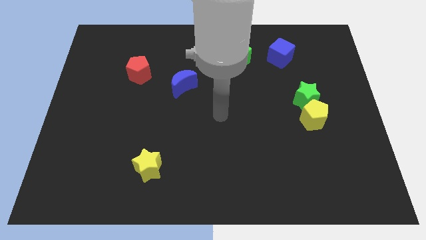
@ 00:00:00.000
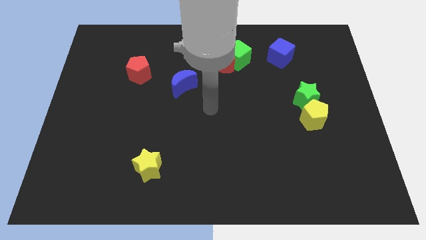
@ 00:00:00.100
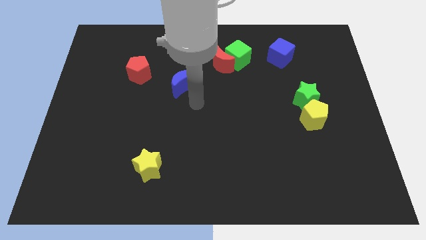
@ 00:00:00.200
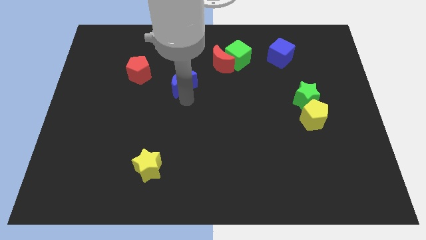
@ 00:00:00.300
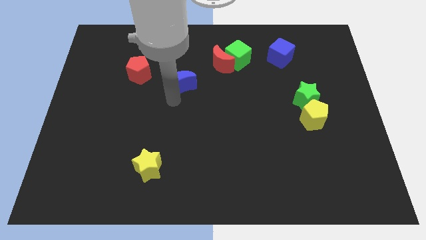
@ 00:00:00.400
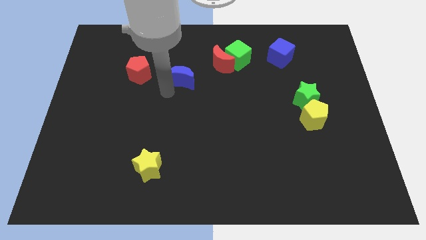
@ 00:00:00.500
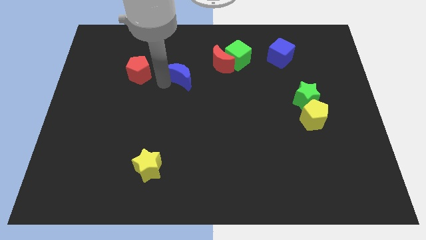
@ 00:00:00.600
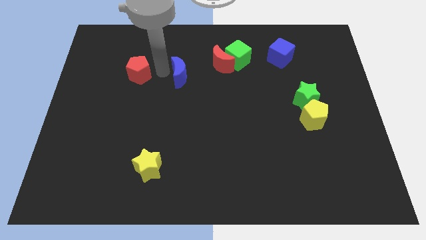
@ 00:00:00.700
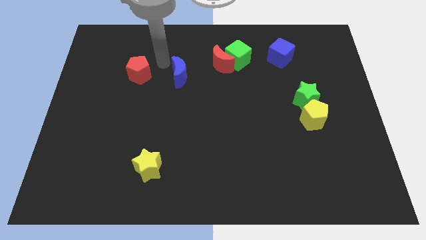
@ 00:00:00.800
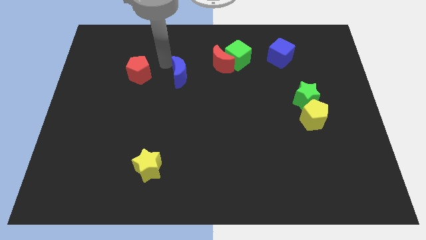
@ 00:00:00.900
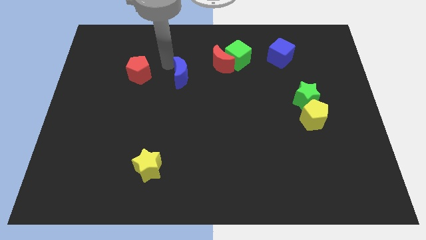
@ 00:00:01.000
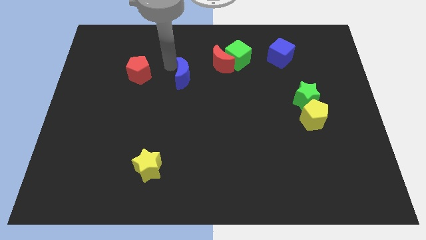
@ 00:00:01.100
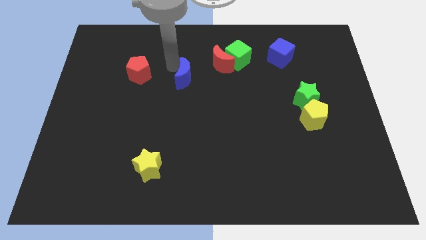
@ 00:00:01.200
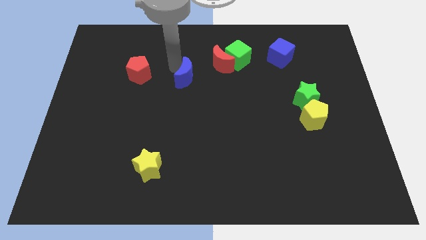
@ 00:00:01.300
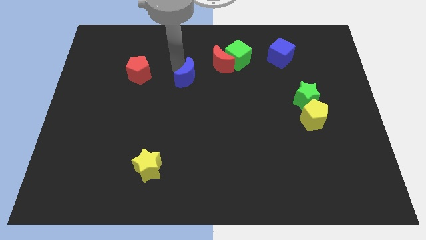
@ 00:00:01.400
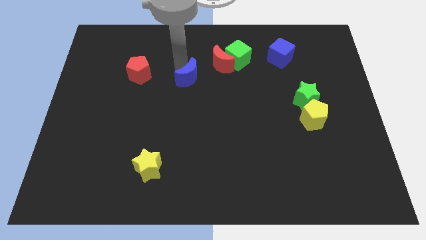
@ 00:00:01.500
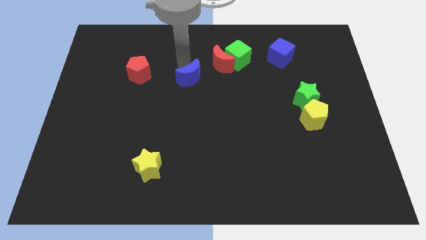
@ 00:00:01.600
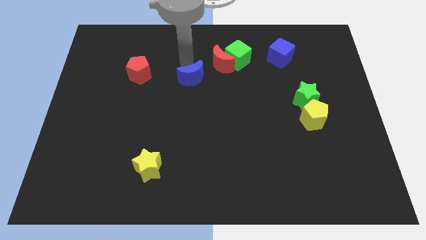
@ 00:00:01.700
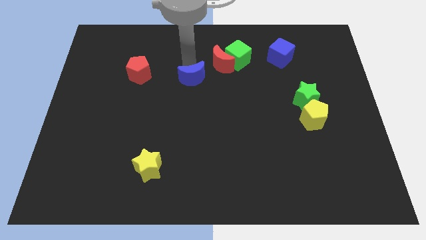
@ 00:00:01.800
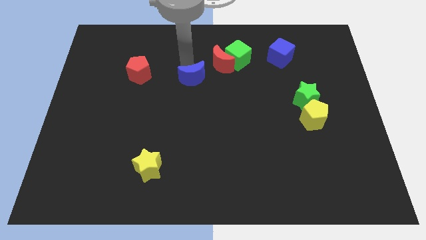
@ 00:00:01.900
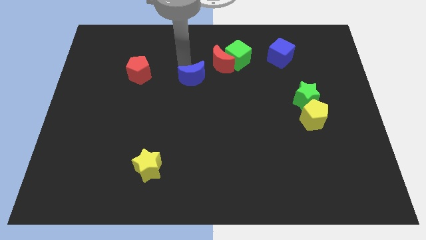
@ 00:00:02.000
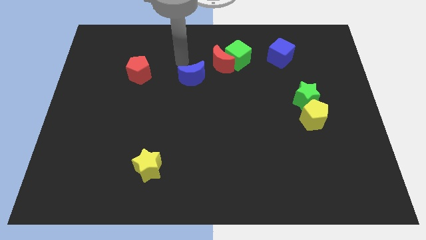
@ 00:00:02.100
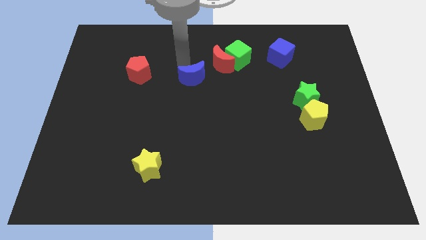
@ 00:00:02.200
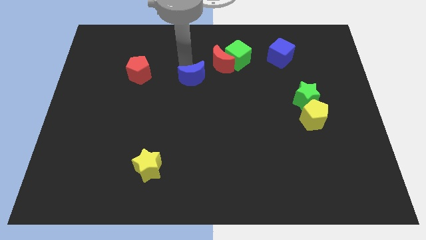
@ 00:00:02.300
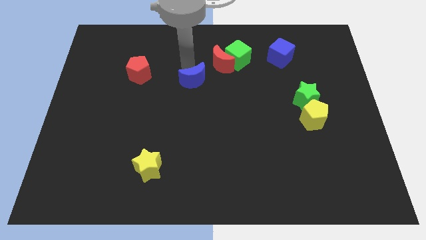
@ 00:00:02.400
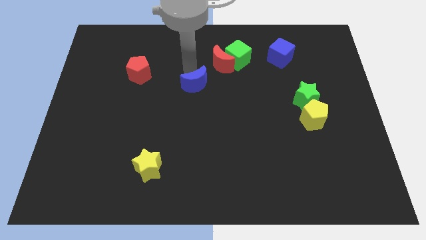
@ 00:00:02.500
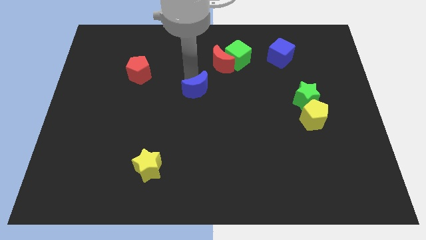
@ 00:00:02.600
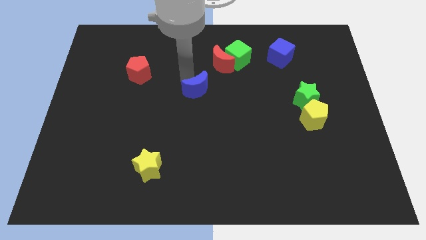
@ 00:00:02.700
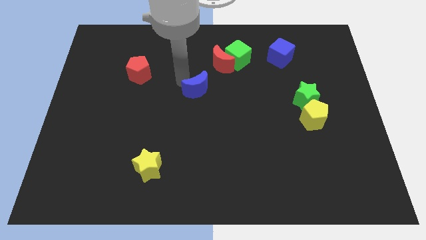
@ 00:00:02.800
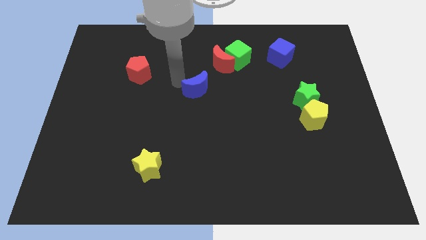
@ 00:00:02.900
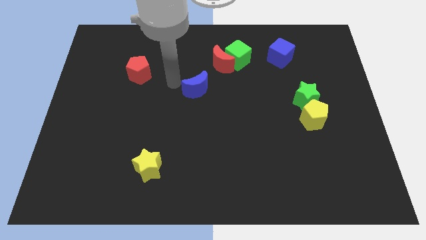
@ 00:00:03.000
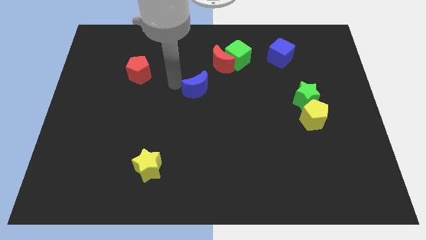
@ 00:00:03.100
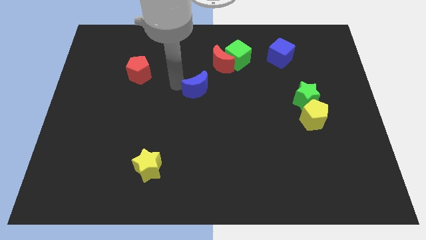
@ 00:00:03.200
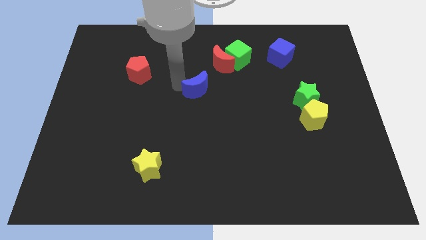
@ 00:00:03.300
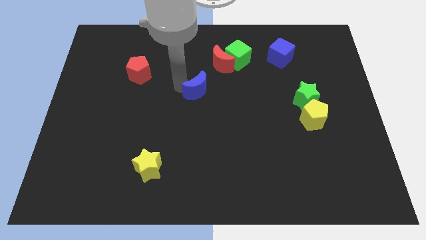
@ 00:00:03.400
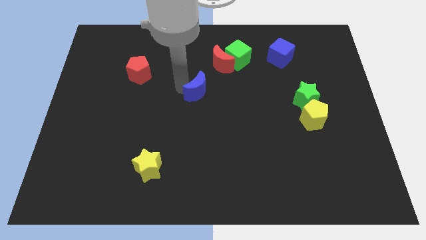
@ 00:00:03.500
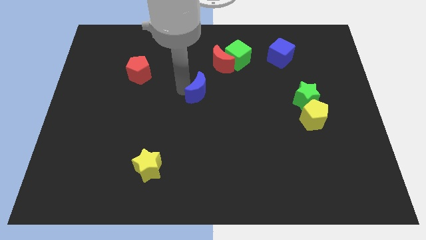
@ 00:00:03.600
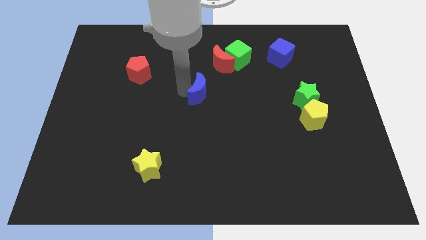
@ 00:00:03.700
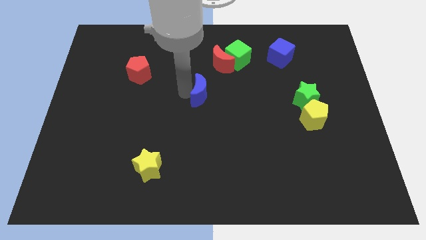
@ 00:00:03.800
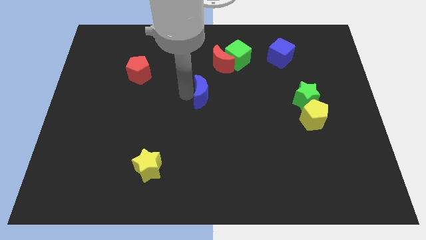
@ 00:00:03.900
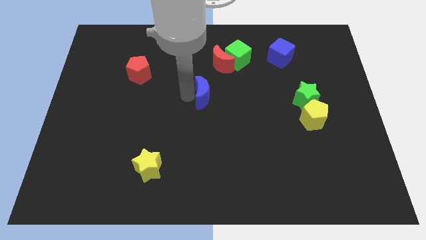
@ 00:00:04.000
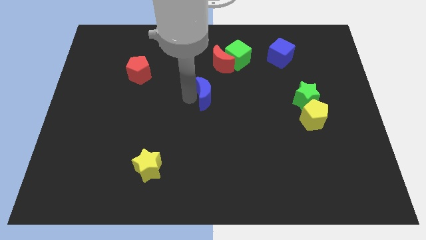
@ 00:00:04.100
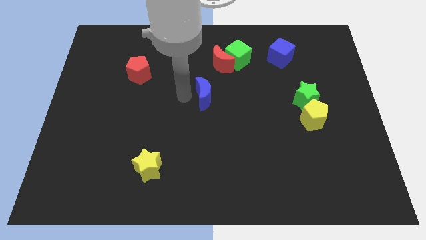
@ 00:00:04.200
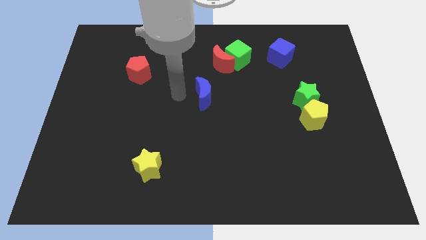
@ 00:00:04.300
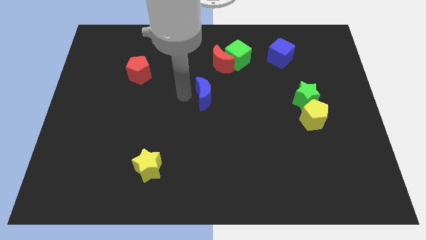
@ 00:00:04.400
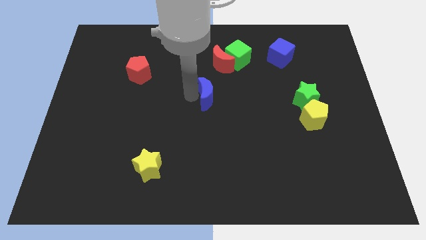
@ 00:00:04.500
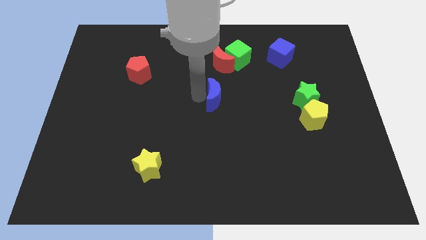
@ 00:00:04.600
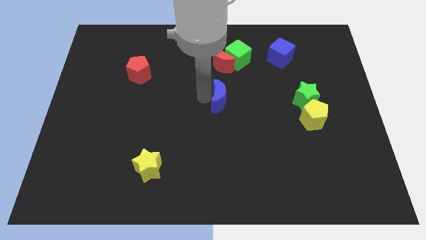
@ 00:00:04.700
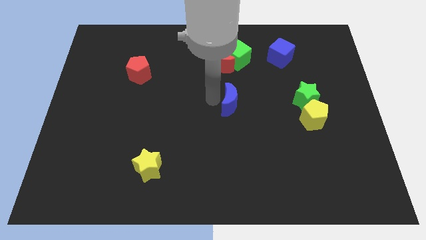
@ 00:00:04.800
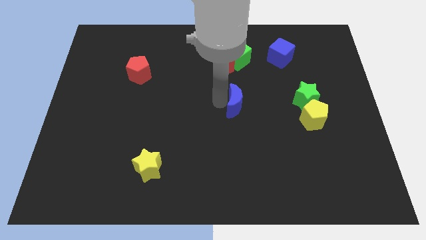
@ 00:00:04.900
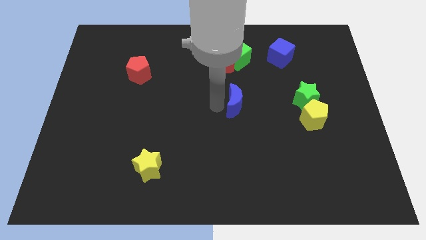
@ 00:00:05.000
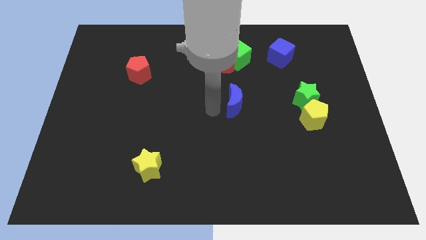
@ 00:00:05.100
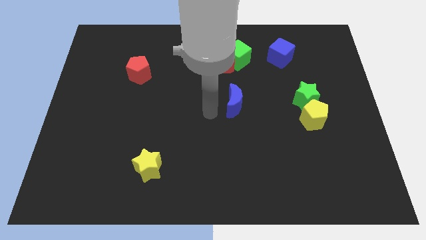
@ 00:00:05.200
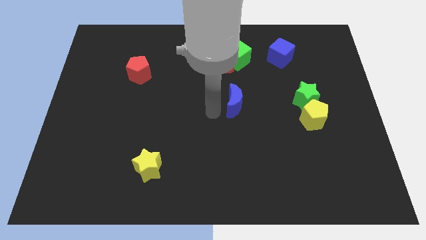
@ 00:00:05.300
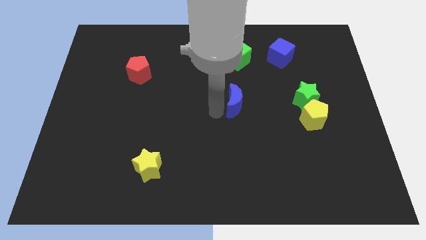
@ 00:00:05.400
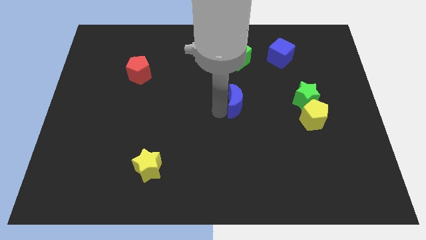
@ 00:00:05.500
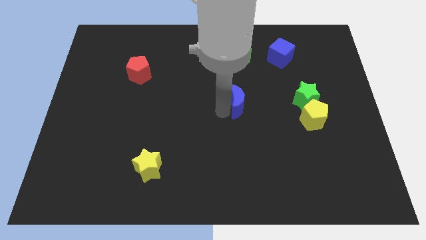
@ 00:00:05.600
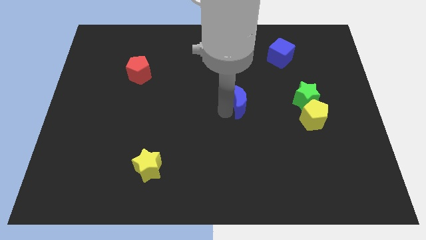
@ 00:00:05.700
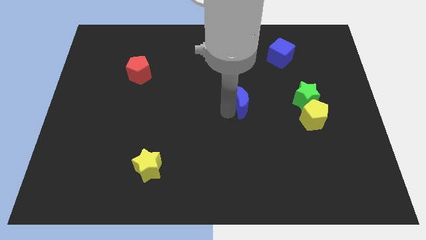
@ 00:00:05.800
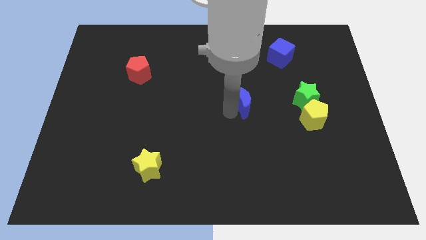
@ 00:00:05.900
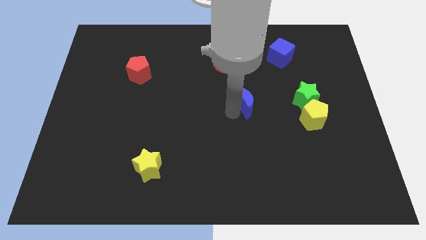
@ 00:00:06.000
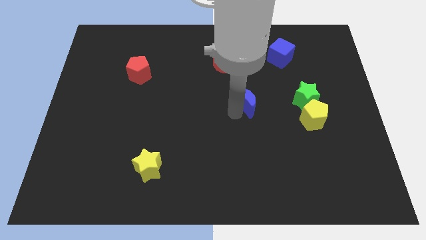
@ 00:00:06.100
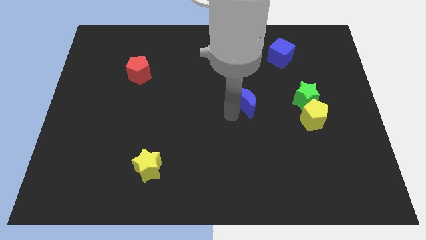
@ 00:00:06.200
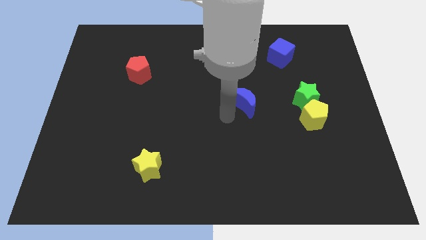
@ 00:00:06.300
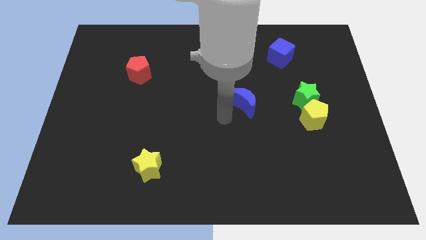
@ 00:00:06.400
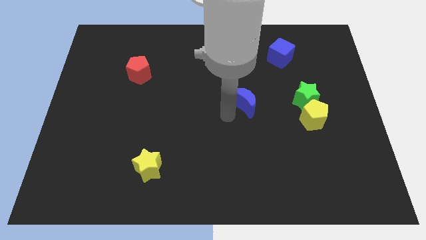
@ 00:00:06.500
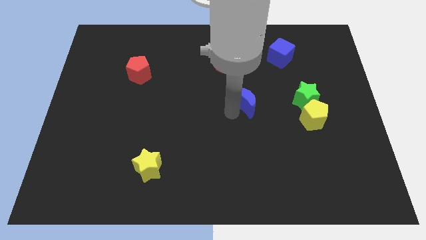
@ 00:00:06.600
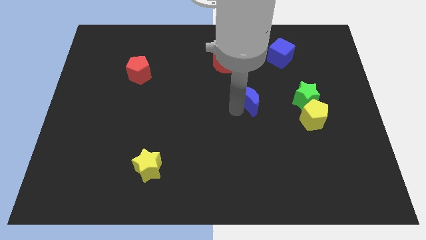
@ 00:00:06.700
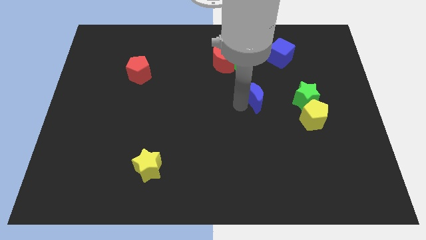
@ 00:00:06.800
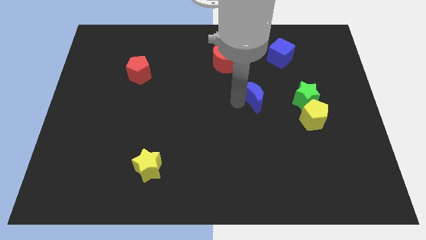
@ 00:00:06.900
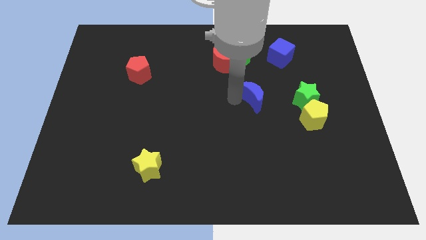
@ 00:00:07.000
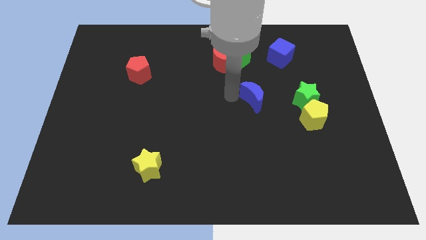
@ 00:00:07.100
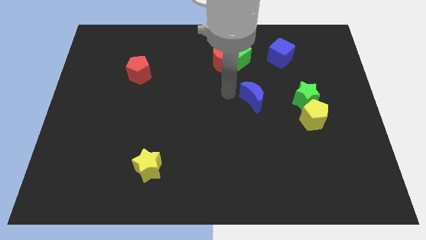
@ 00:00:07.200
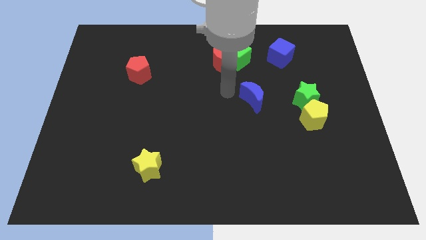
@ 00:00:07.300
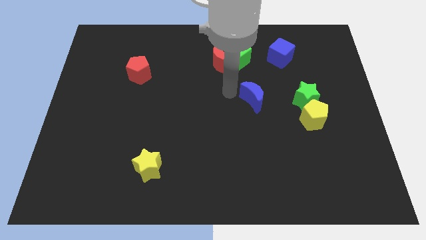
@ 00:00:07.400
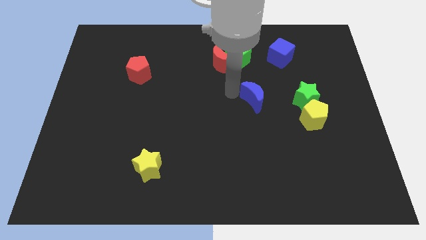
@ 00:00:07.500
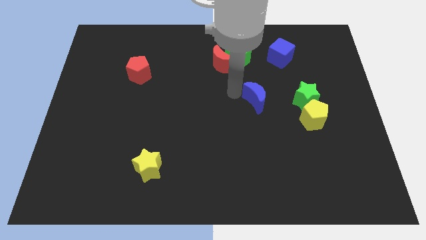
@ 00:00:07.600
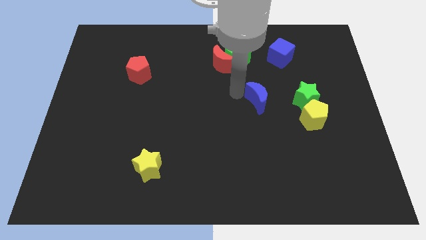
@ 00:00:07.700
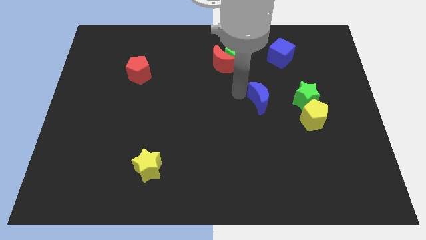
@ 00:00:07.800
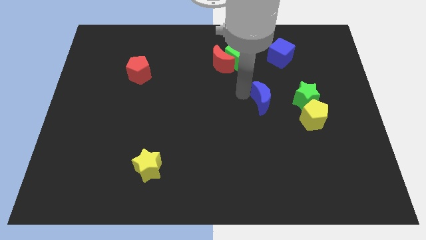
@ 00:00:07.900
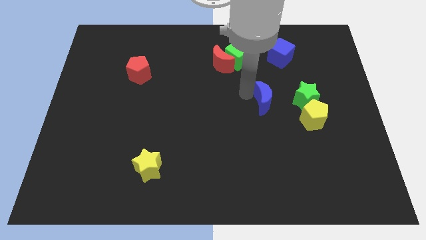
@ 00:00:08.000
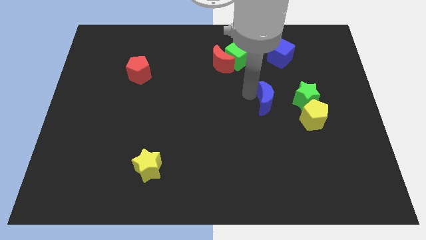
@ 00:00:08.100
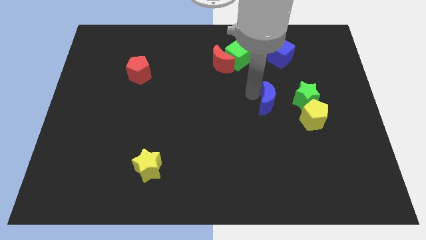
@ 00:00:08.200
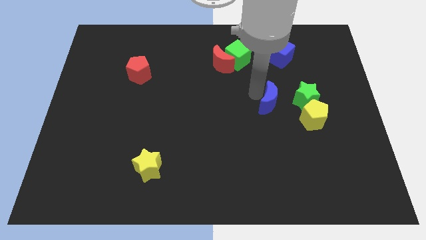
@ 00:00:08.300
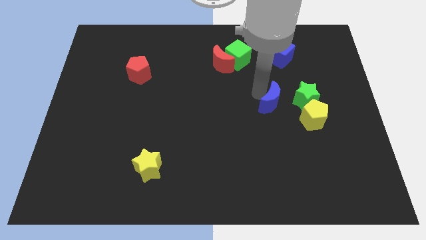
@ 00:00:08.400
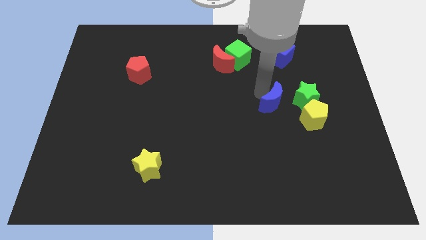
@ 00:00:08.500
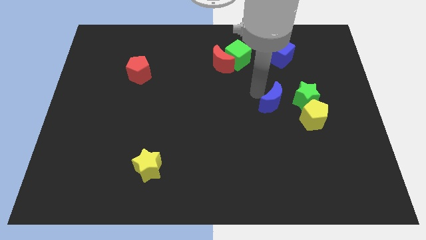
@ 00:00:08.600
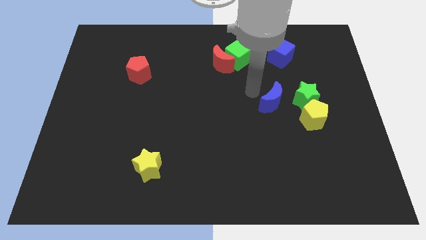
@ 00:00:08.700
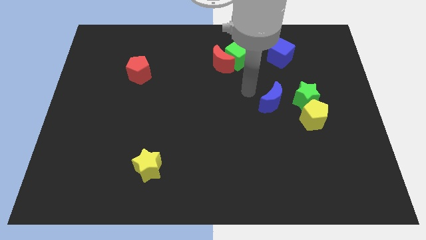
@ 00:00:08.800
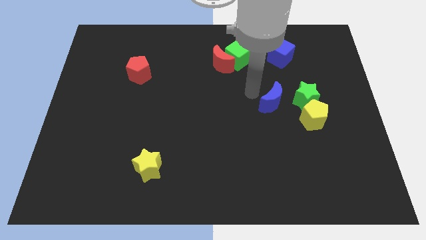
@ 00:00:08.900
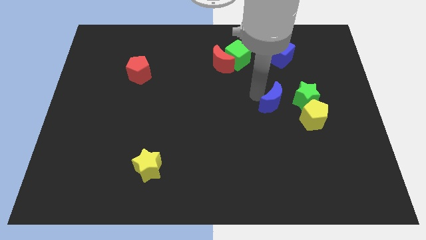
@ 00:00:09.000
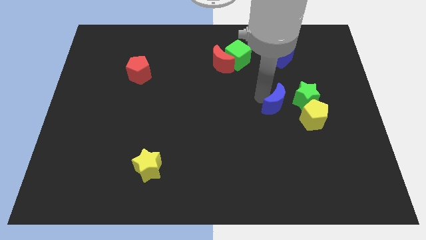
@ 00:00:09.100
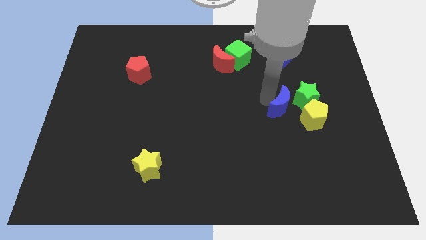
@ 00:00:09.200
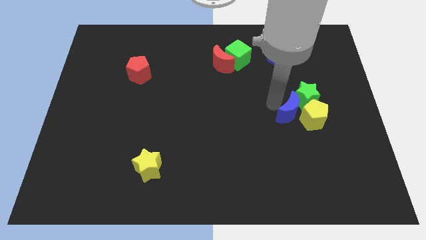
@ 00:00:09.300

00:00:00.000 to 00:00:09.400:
push the blue moon towards the yellow pentagon
